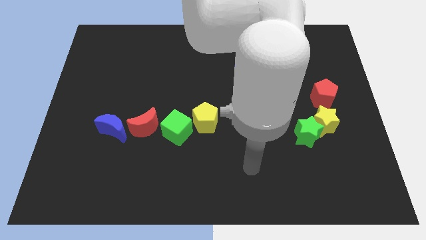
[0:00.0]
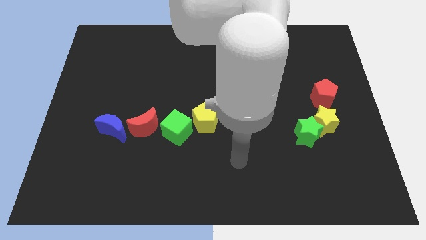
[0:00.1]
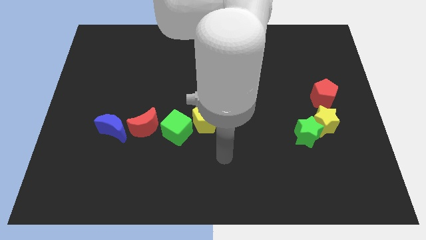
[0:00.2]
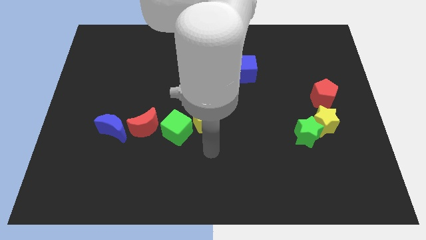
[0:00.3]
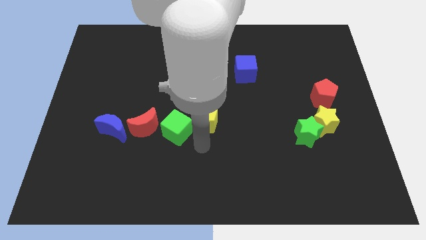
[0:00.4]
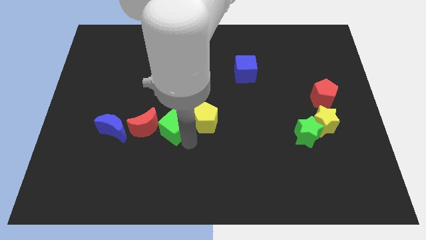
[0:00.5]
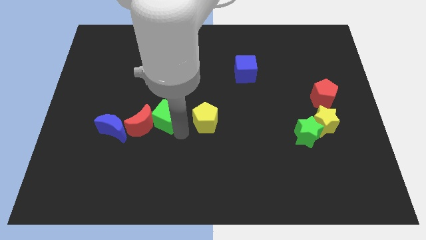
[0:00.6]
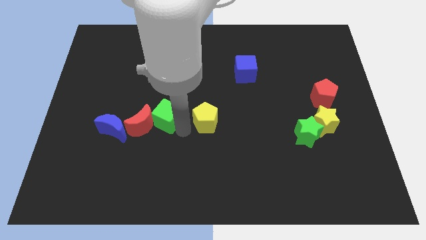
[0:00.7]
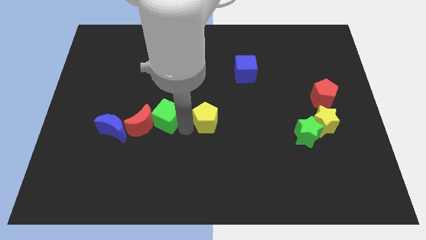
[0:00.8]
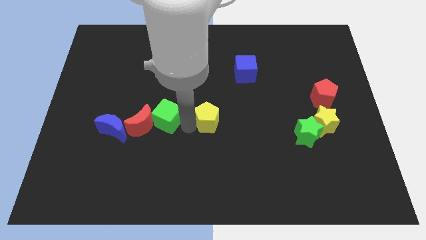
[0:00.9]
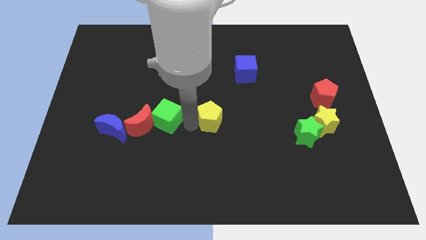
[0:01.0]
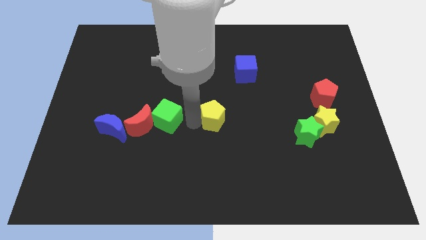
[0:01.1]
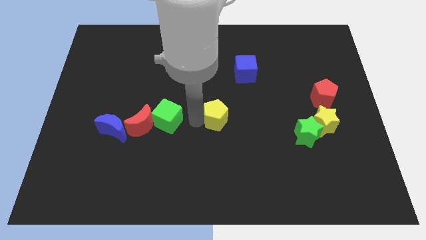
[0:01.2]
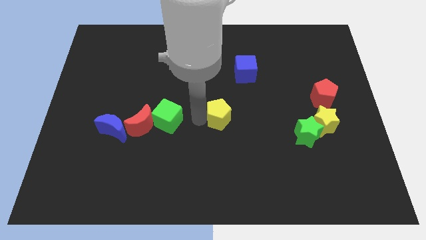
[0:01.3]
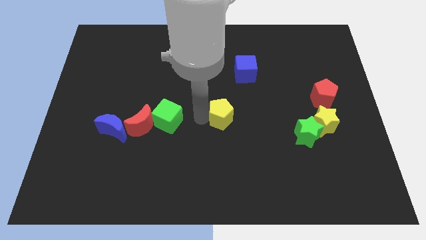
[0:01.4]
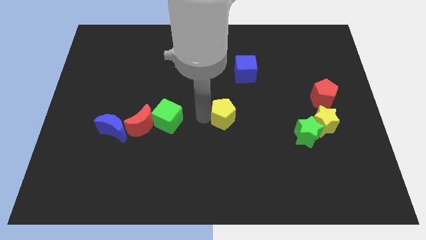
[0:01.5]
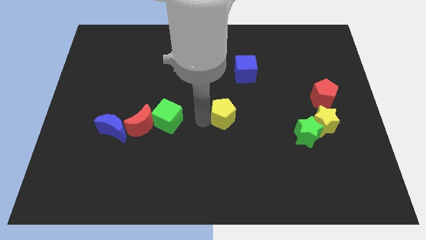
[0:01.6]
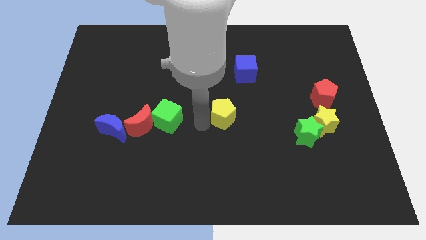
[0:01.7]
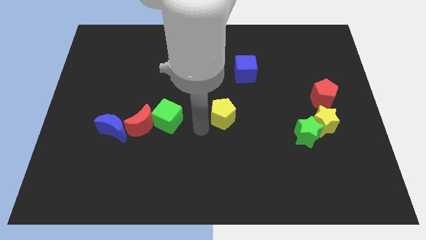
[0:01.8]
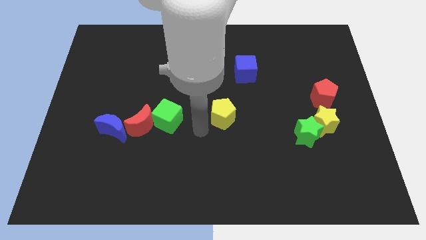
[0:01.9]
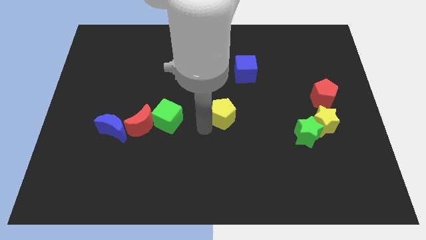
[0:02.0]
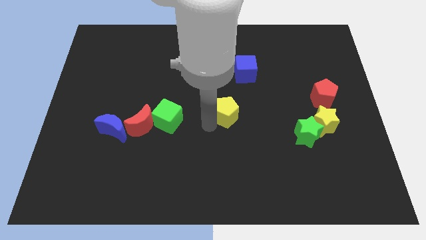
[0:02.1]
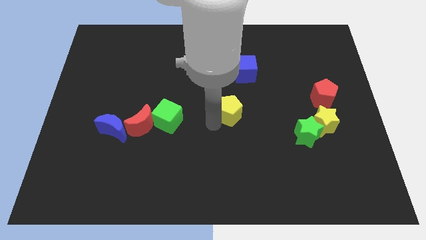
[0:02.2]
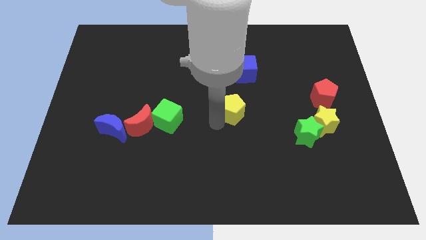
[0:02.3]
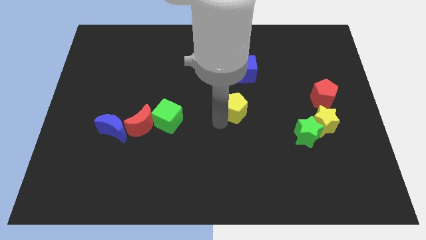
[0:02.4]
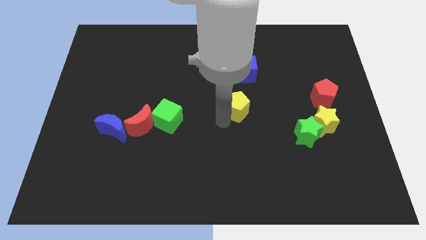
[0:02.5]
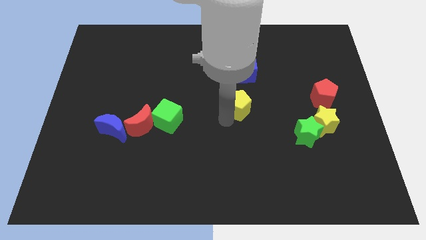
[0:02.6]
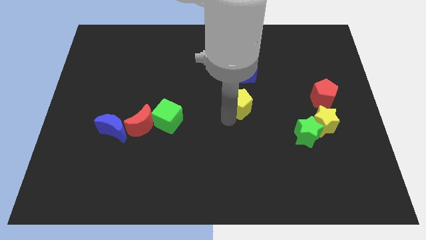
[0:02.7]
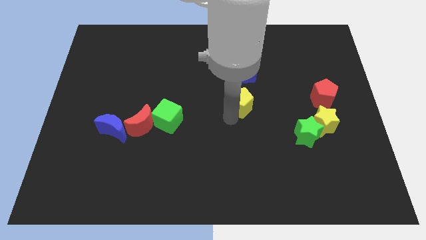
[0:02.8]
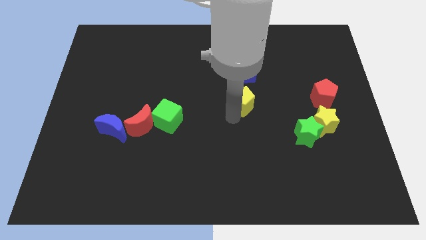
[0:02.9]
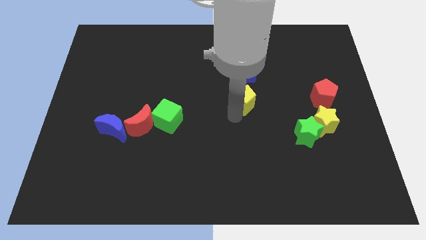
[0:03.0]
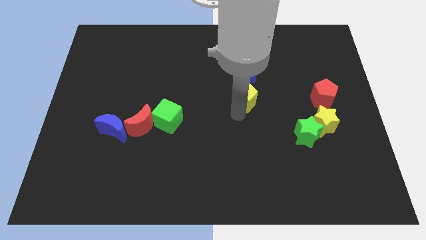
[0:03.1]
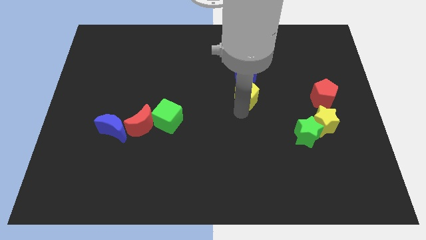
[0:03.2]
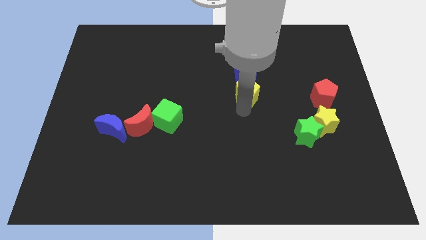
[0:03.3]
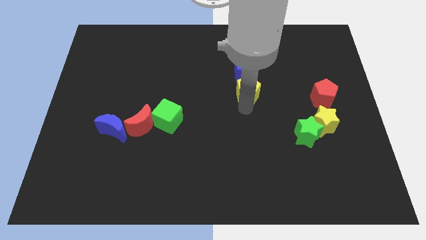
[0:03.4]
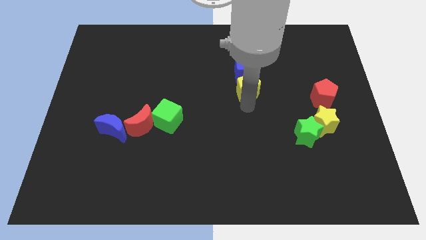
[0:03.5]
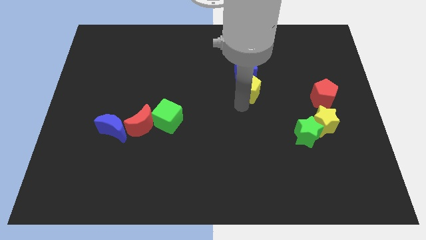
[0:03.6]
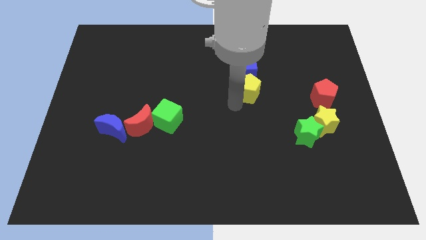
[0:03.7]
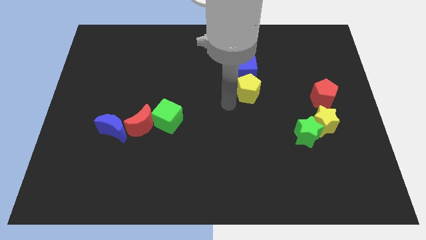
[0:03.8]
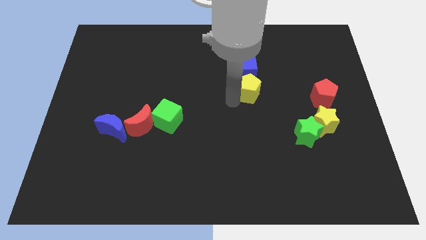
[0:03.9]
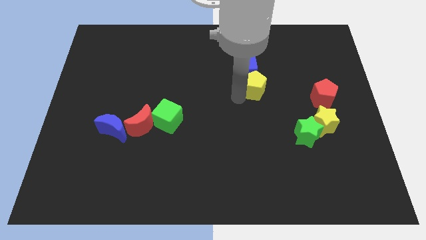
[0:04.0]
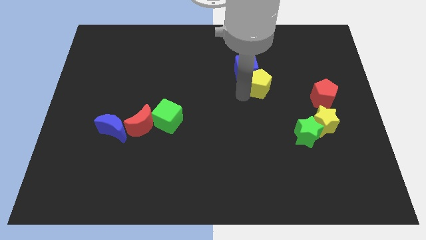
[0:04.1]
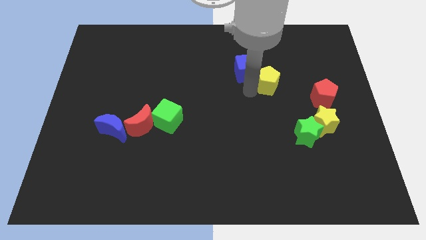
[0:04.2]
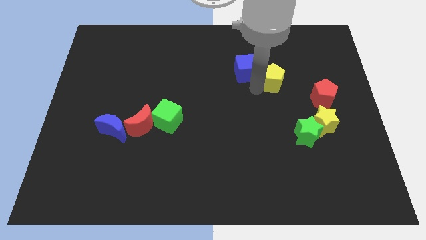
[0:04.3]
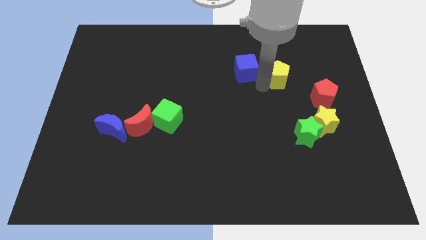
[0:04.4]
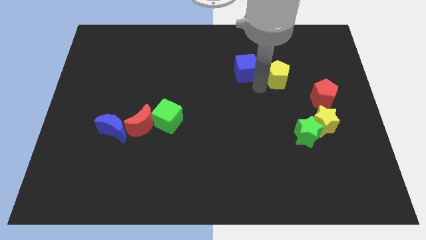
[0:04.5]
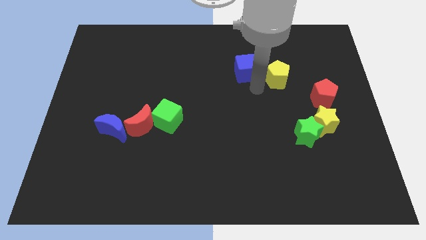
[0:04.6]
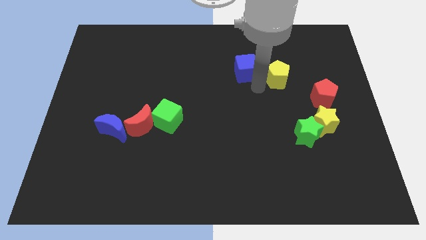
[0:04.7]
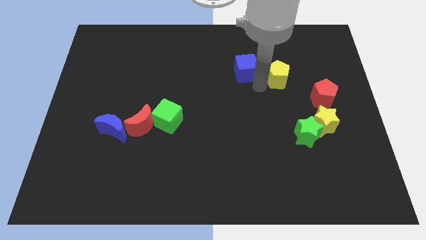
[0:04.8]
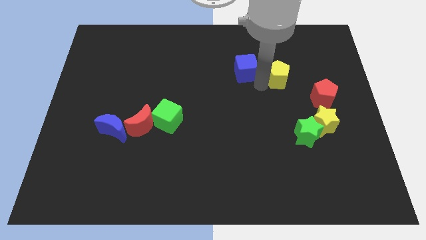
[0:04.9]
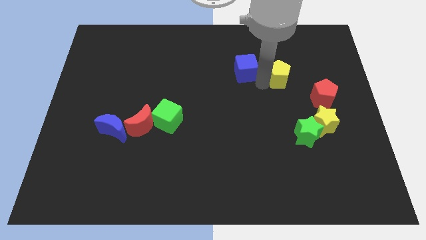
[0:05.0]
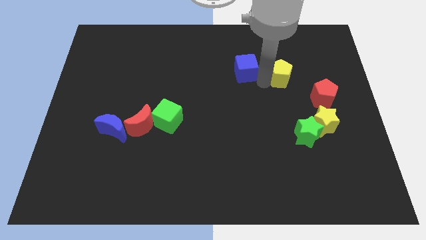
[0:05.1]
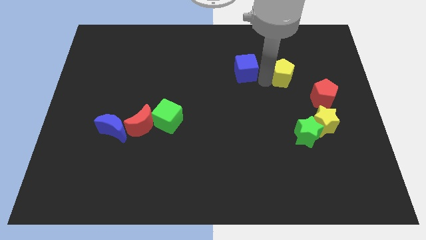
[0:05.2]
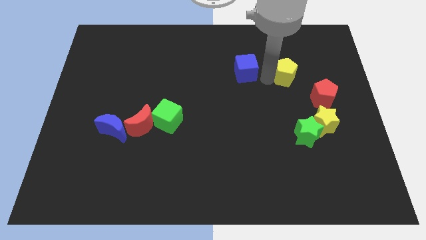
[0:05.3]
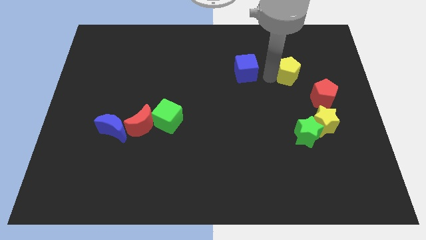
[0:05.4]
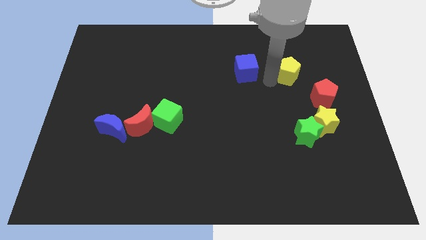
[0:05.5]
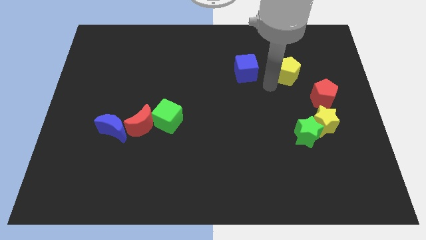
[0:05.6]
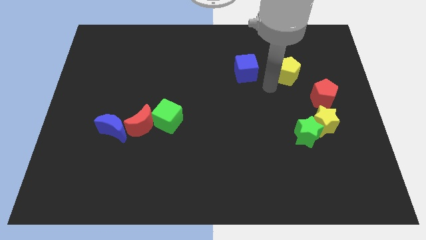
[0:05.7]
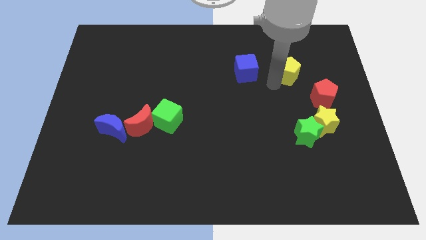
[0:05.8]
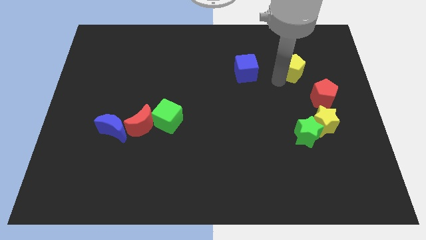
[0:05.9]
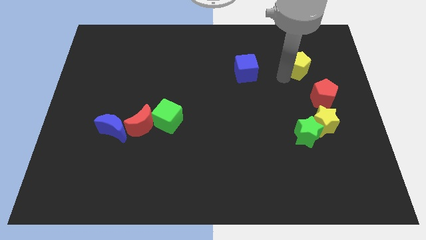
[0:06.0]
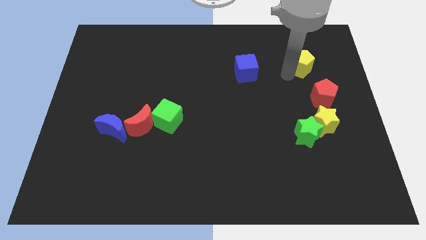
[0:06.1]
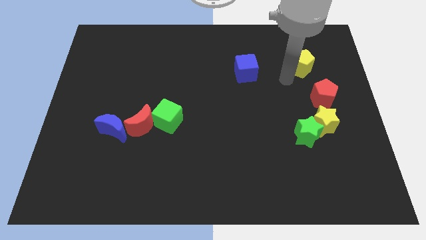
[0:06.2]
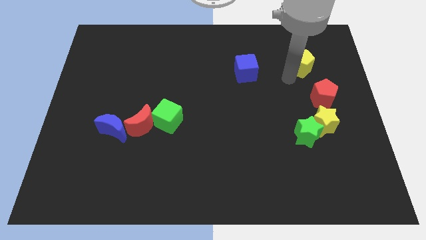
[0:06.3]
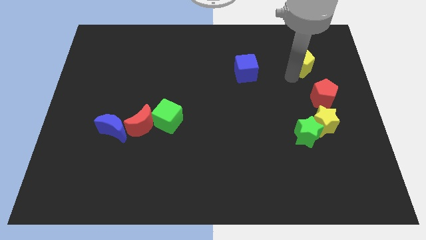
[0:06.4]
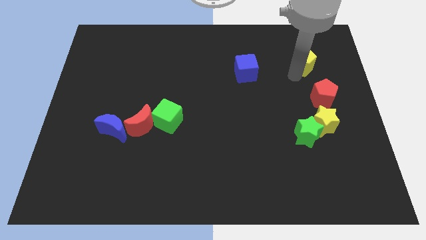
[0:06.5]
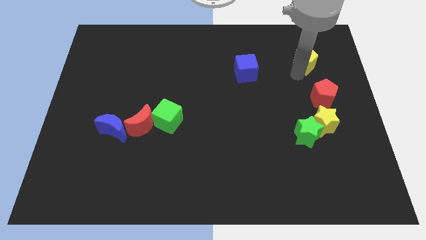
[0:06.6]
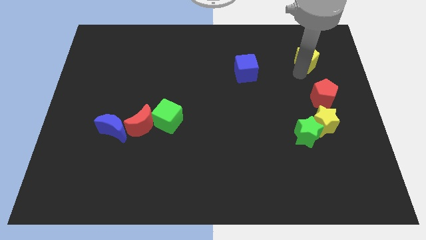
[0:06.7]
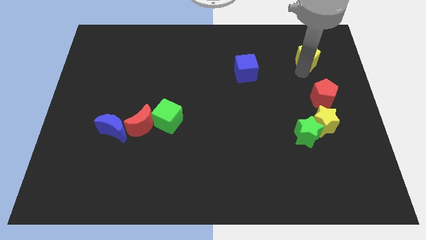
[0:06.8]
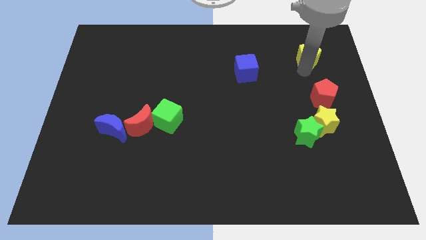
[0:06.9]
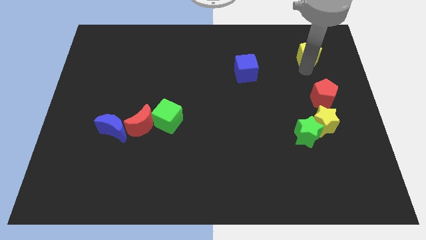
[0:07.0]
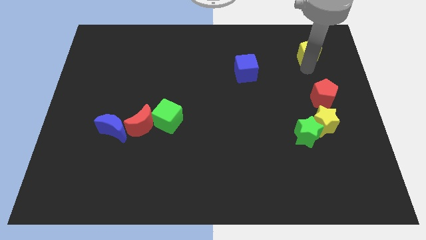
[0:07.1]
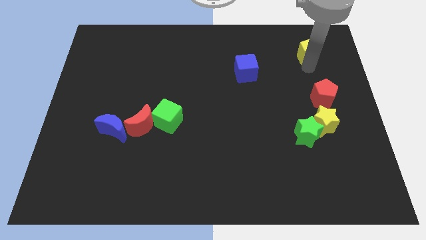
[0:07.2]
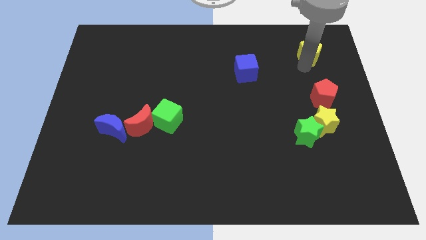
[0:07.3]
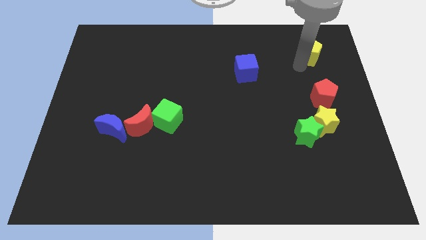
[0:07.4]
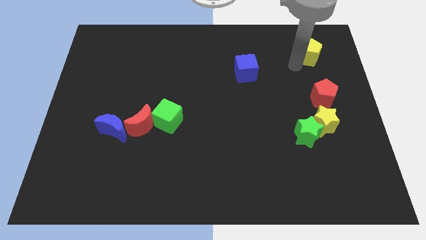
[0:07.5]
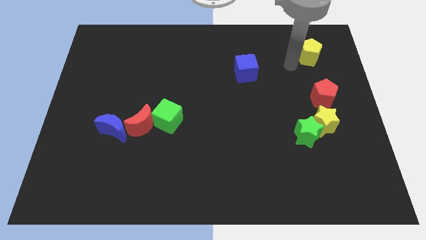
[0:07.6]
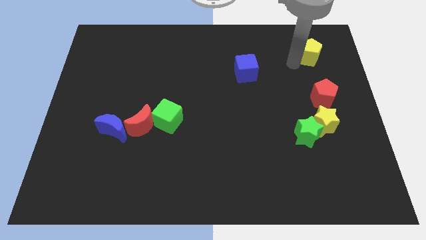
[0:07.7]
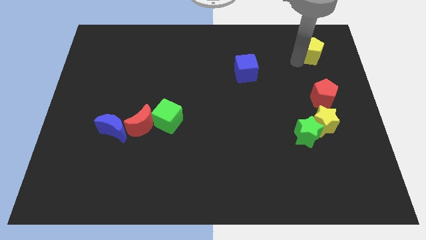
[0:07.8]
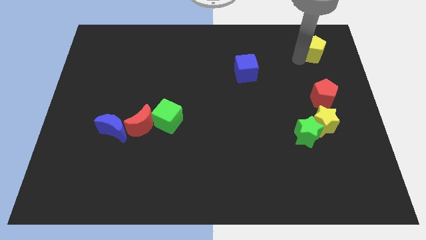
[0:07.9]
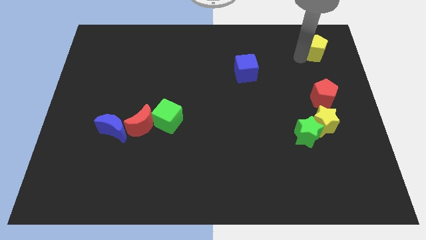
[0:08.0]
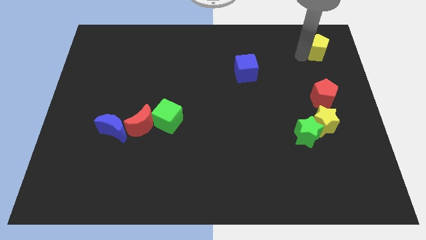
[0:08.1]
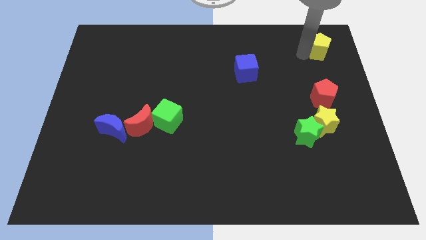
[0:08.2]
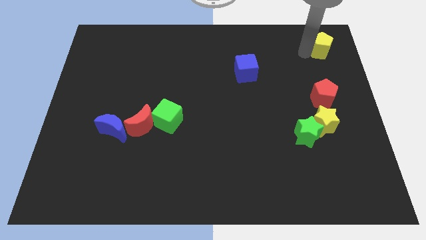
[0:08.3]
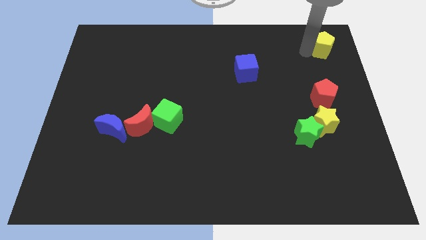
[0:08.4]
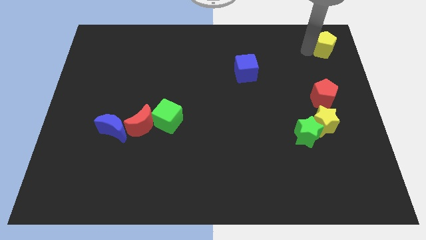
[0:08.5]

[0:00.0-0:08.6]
slide the yellow pentagon to the top right
